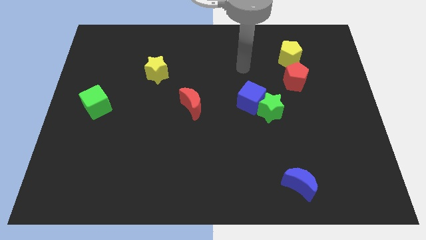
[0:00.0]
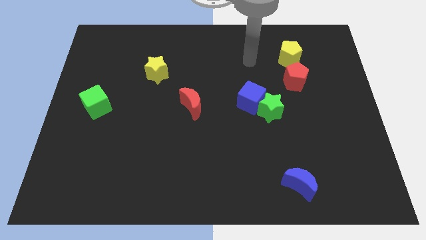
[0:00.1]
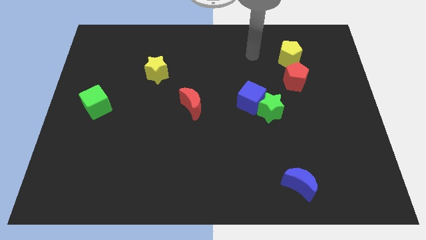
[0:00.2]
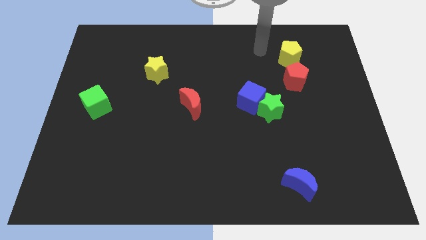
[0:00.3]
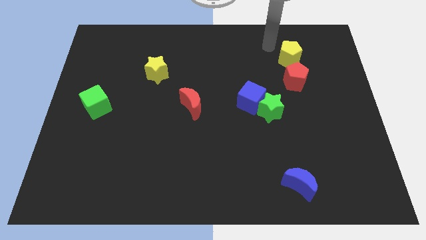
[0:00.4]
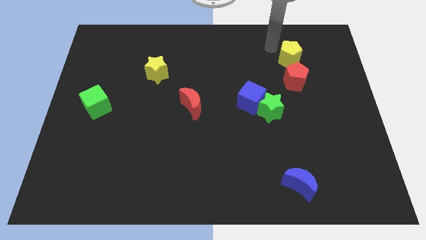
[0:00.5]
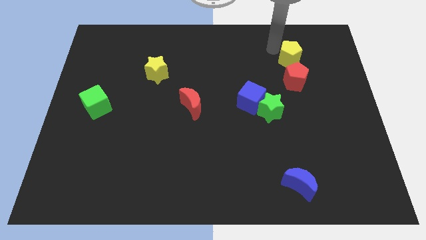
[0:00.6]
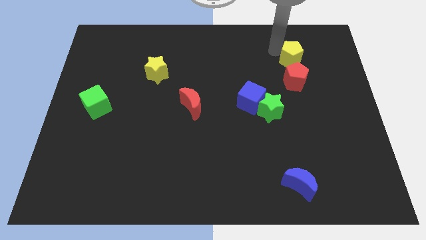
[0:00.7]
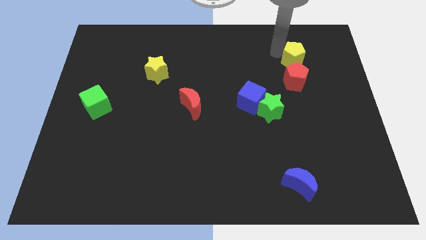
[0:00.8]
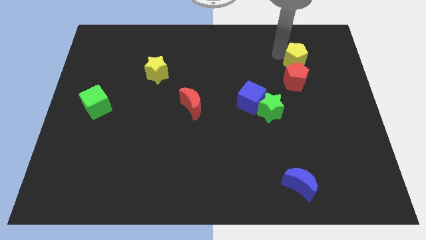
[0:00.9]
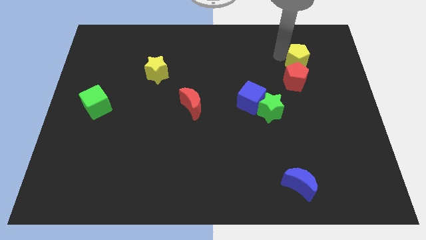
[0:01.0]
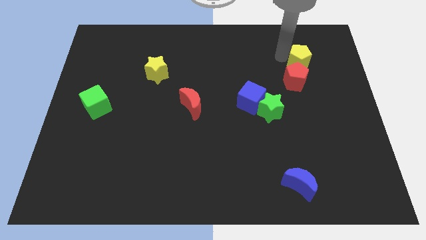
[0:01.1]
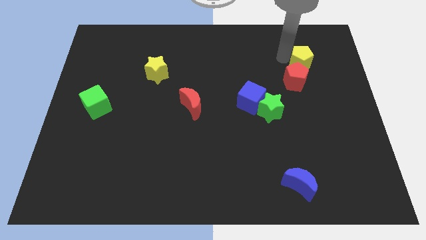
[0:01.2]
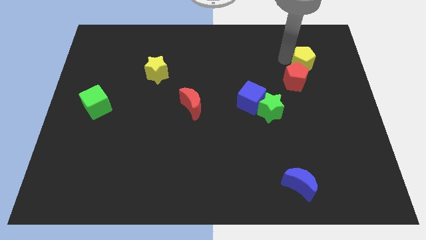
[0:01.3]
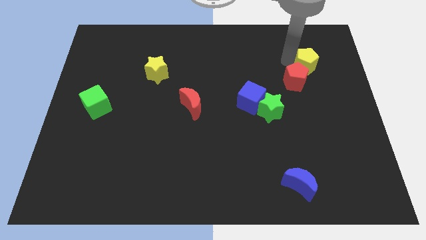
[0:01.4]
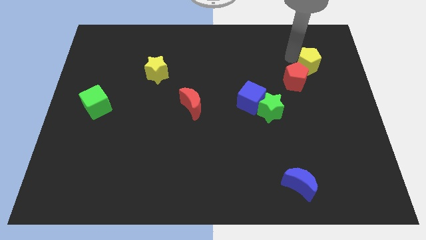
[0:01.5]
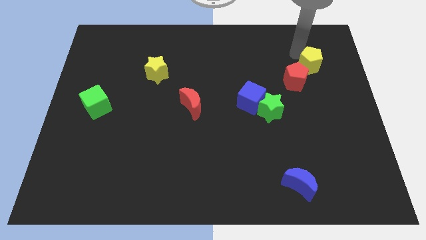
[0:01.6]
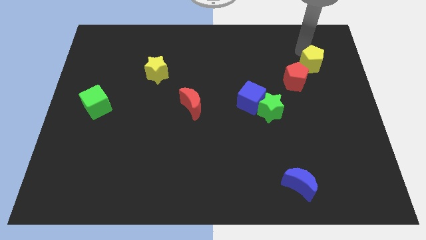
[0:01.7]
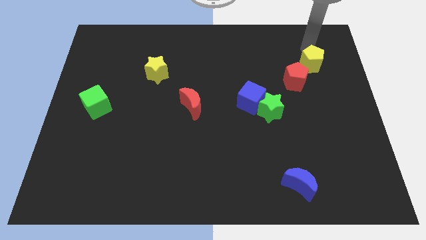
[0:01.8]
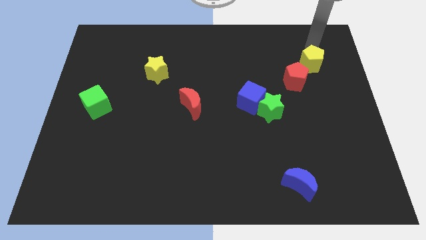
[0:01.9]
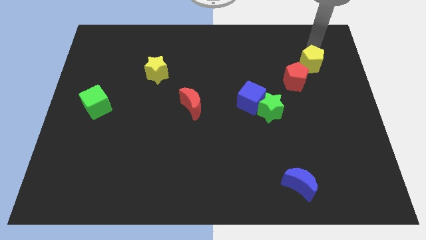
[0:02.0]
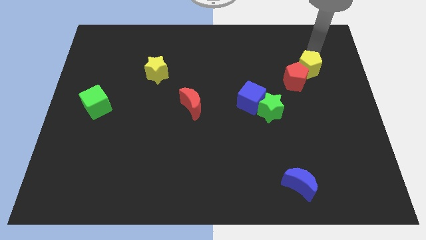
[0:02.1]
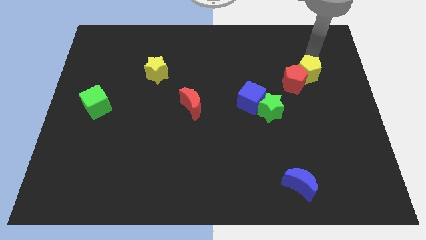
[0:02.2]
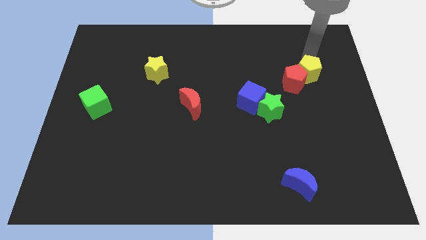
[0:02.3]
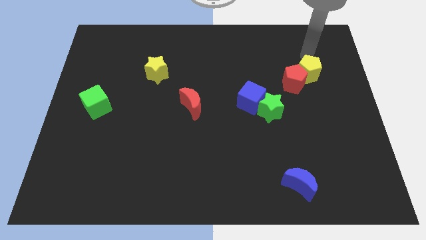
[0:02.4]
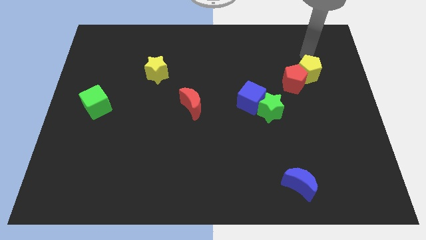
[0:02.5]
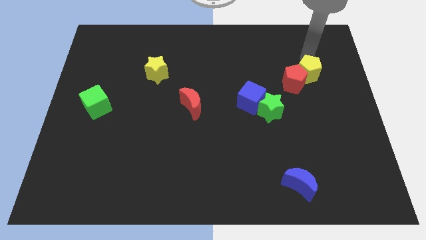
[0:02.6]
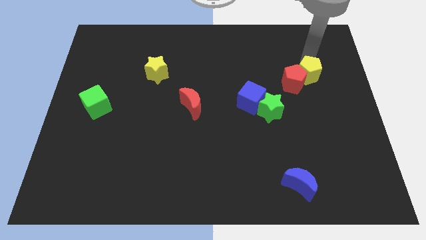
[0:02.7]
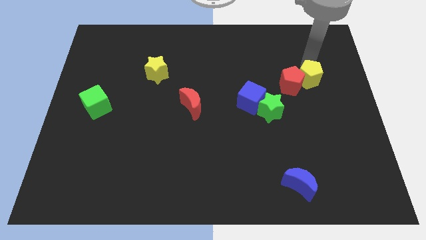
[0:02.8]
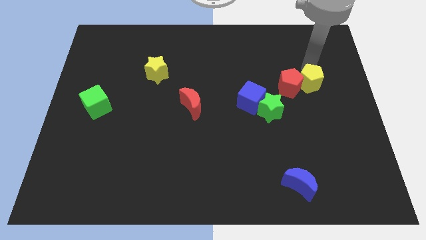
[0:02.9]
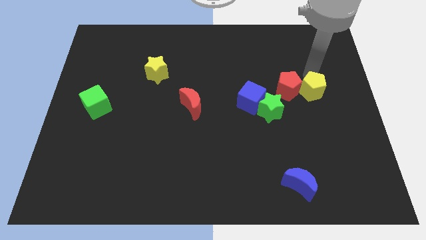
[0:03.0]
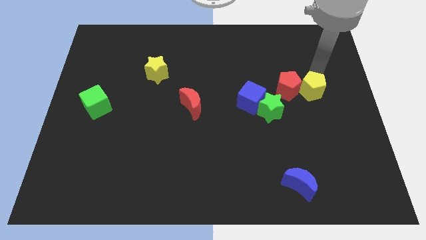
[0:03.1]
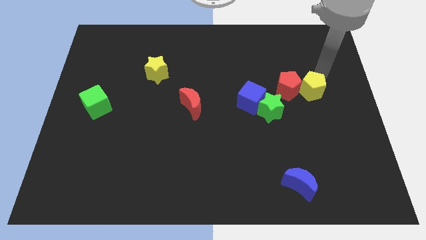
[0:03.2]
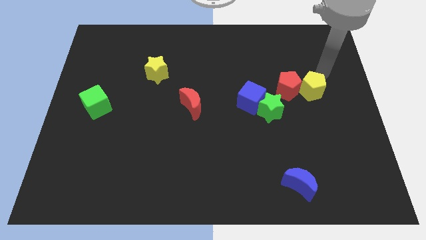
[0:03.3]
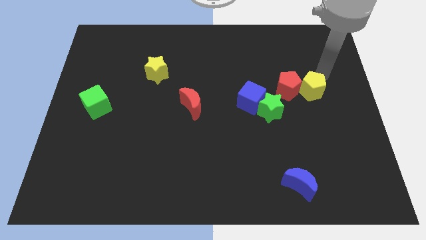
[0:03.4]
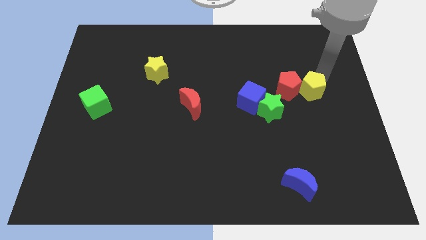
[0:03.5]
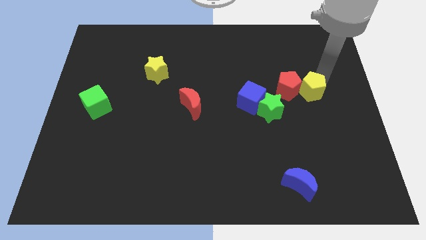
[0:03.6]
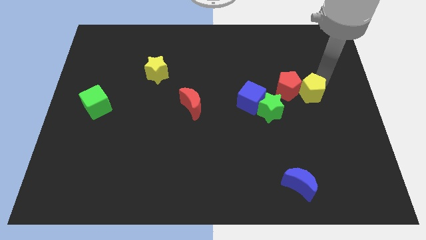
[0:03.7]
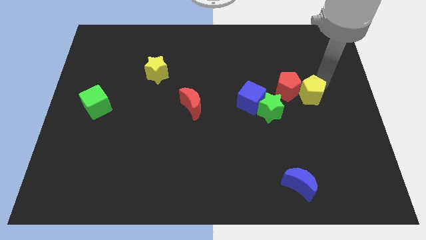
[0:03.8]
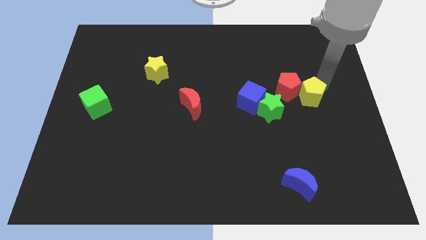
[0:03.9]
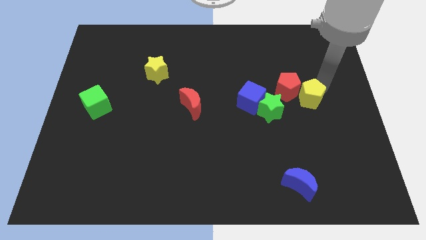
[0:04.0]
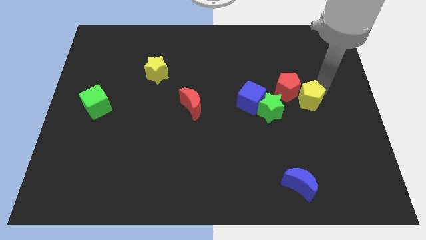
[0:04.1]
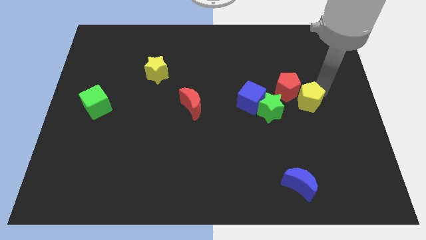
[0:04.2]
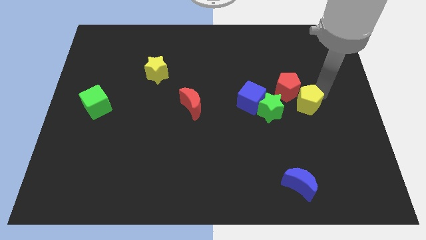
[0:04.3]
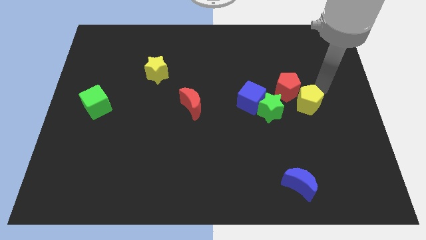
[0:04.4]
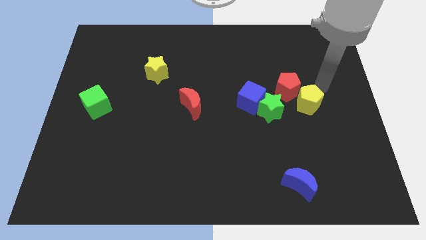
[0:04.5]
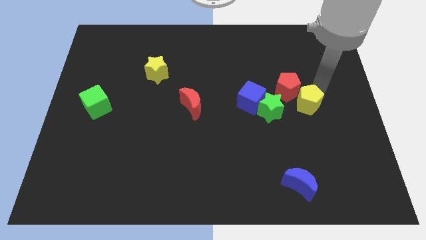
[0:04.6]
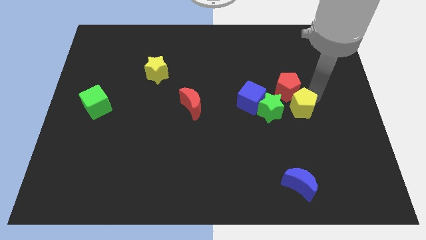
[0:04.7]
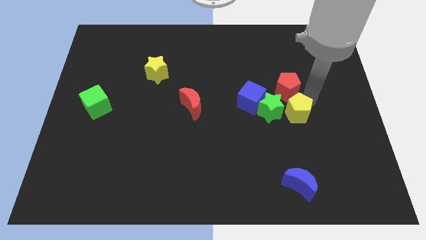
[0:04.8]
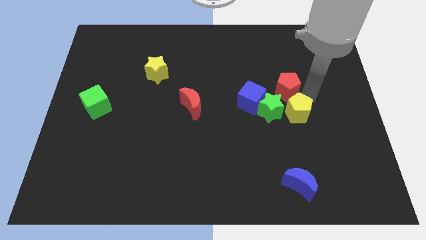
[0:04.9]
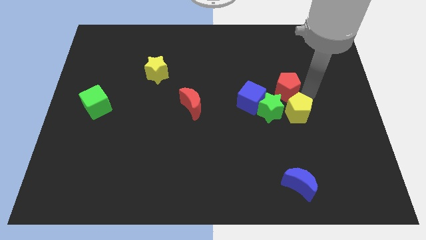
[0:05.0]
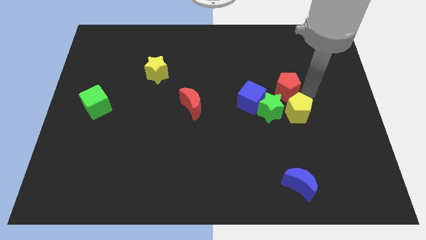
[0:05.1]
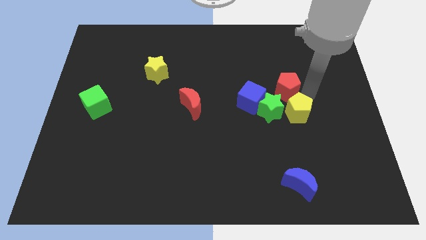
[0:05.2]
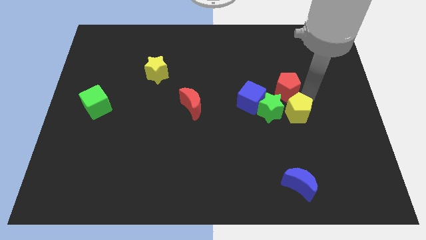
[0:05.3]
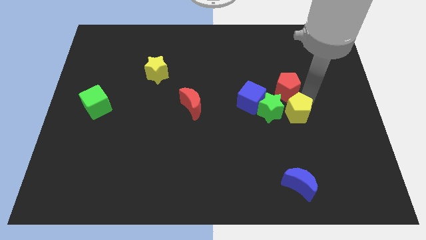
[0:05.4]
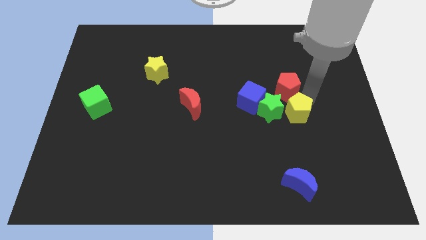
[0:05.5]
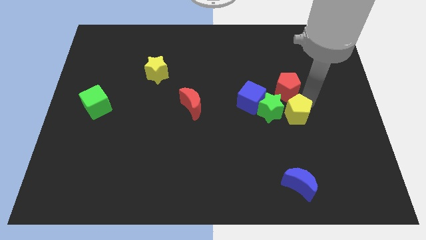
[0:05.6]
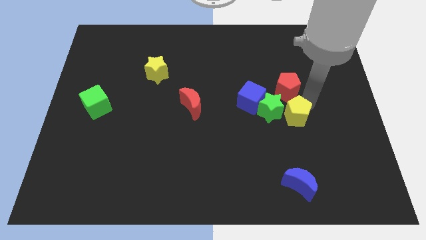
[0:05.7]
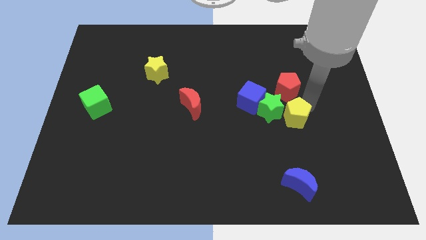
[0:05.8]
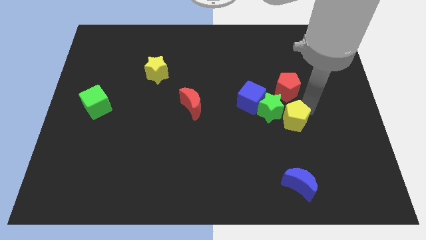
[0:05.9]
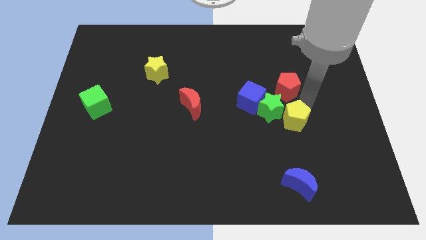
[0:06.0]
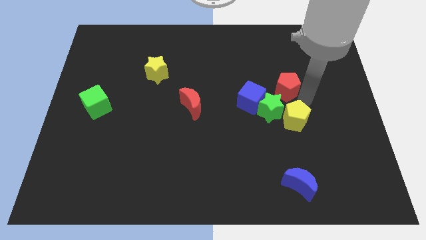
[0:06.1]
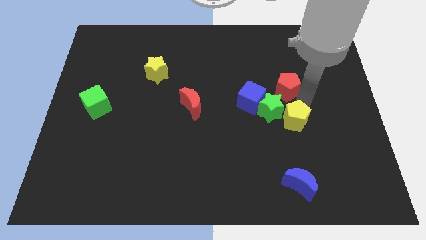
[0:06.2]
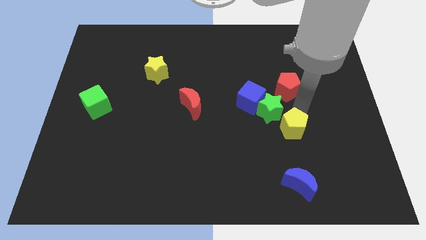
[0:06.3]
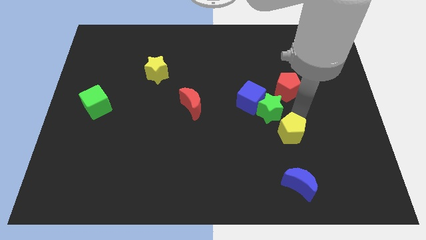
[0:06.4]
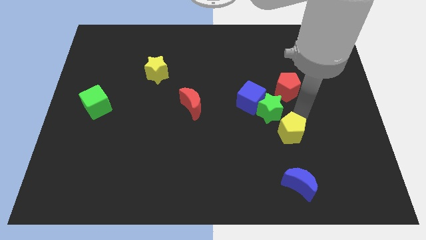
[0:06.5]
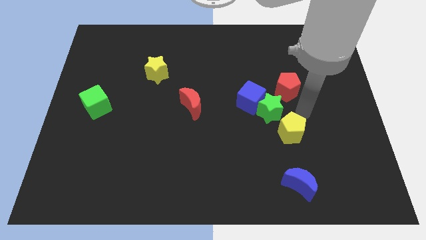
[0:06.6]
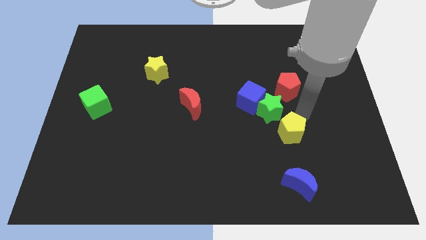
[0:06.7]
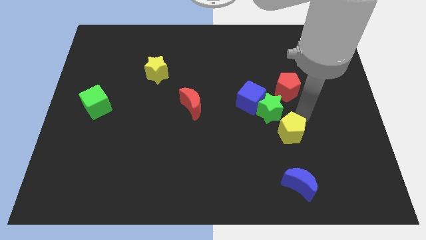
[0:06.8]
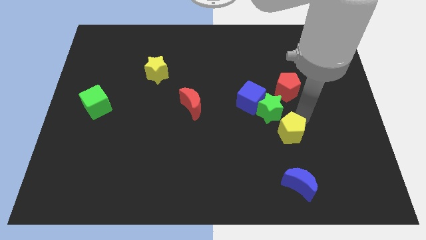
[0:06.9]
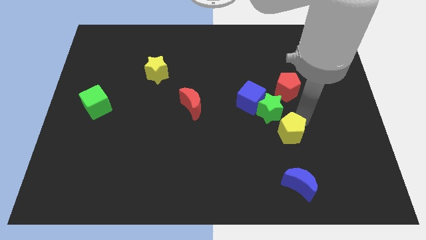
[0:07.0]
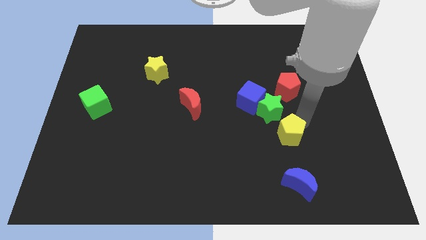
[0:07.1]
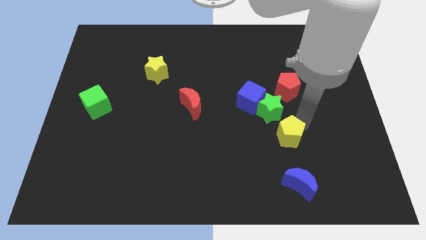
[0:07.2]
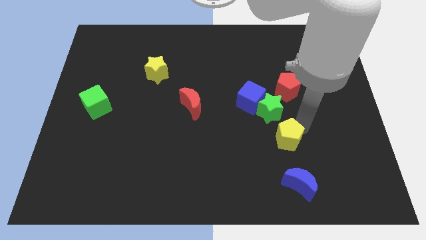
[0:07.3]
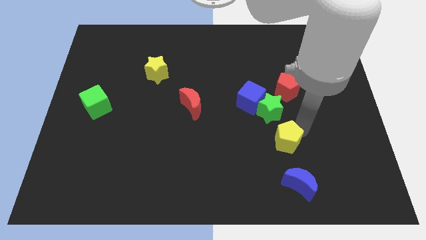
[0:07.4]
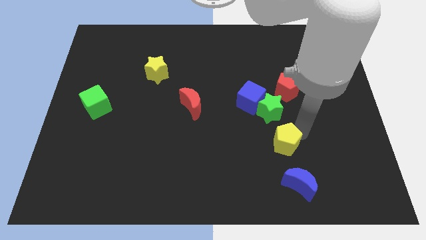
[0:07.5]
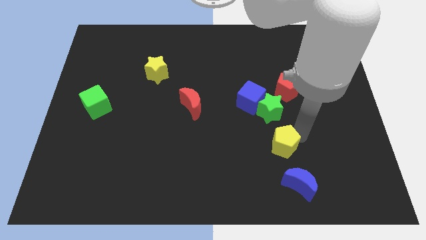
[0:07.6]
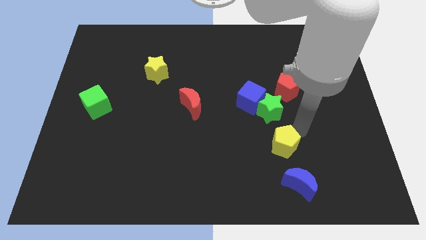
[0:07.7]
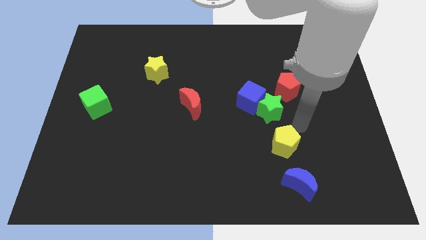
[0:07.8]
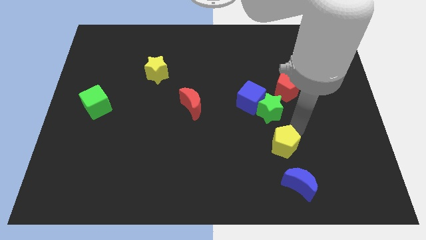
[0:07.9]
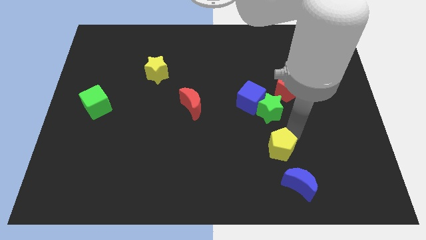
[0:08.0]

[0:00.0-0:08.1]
slide the yellow pentagon to the top left side of the blue moon
